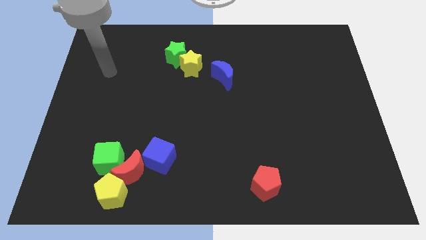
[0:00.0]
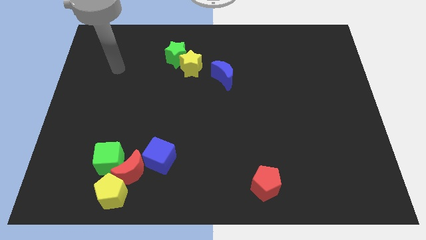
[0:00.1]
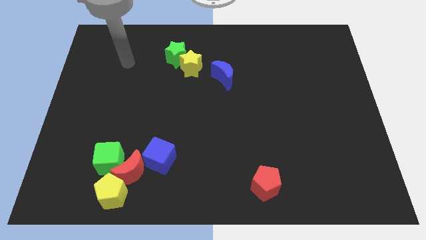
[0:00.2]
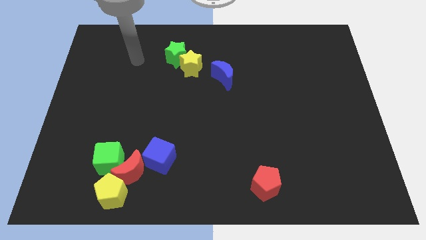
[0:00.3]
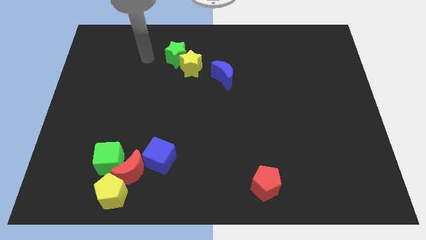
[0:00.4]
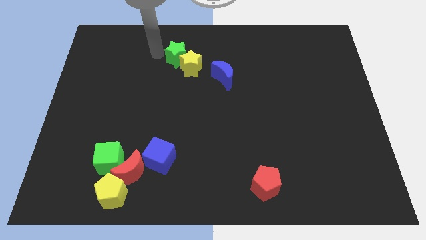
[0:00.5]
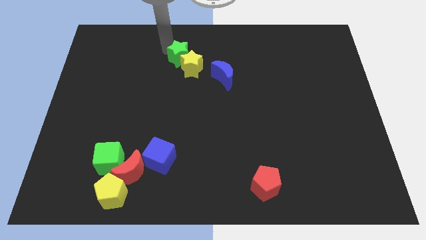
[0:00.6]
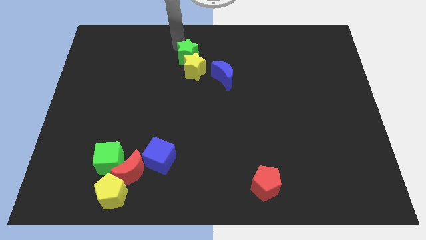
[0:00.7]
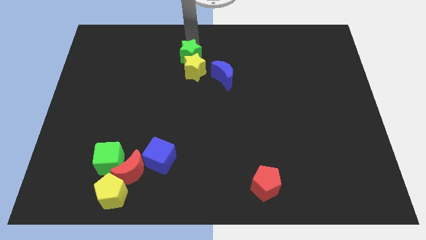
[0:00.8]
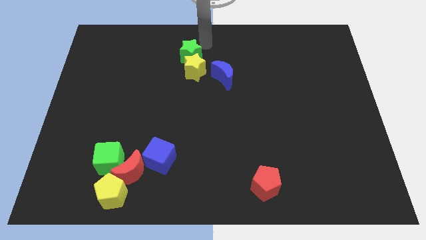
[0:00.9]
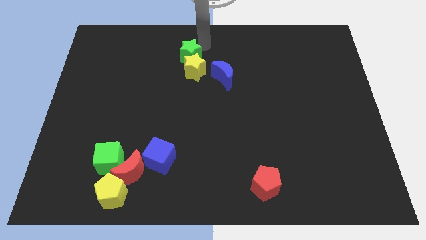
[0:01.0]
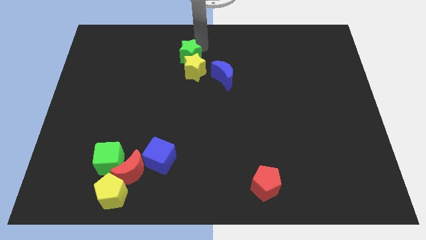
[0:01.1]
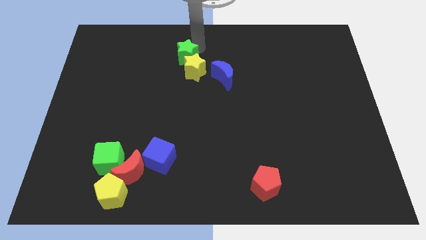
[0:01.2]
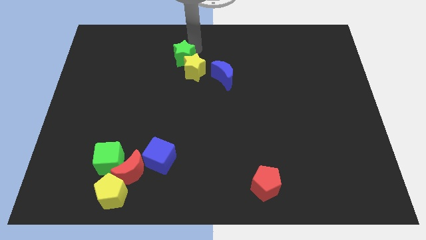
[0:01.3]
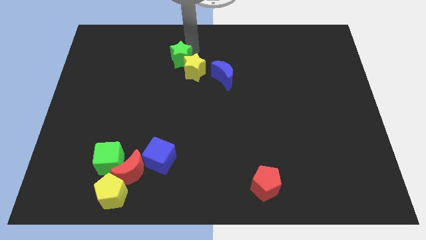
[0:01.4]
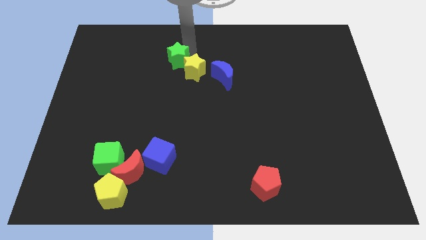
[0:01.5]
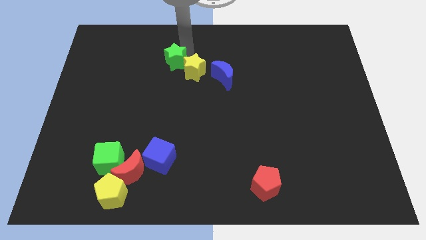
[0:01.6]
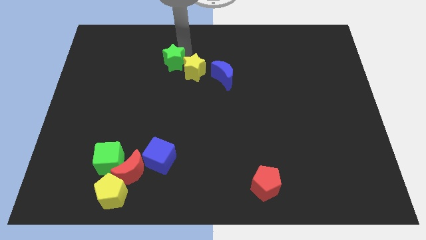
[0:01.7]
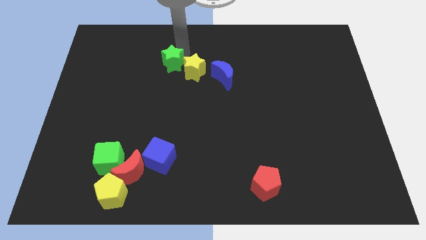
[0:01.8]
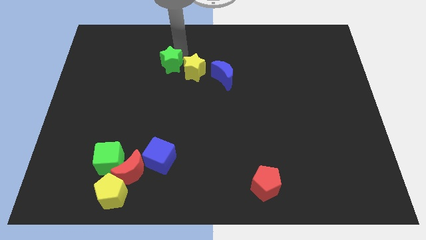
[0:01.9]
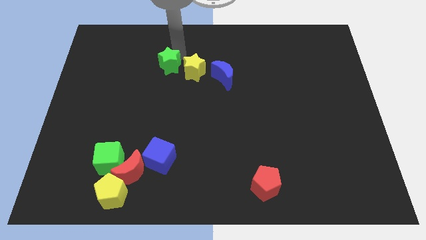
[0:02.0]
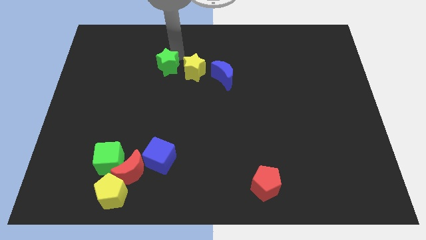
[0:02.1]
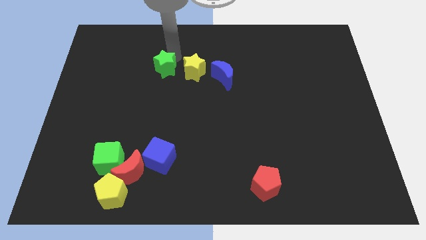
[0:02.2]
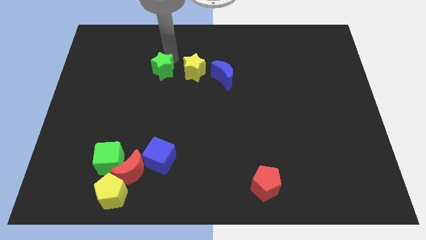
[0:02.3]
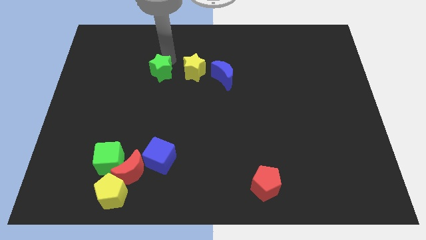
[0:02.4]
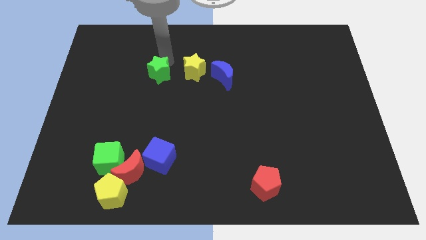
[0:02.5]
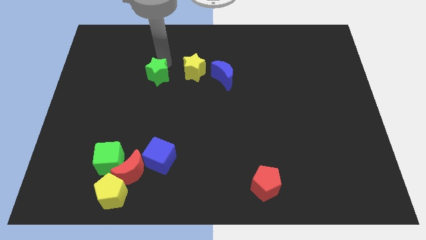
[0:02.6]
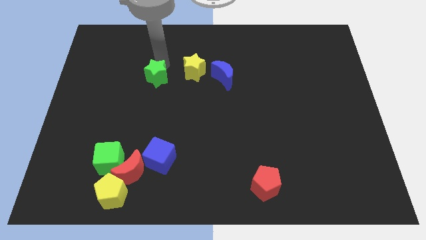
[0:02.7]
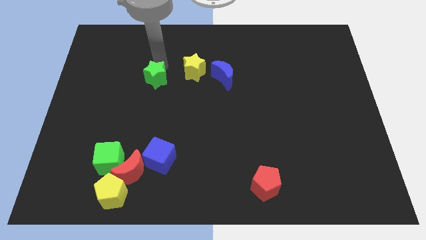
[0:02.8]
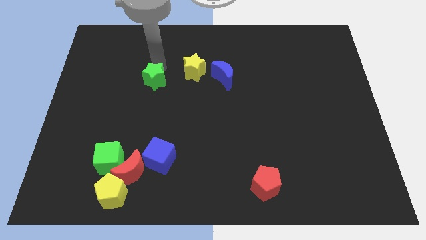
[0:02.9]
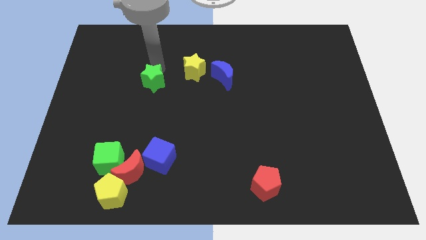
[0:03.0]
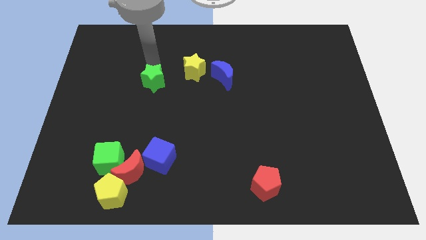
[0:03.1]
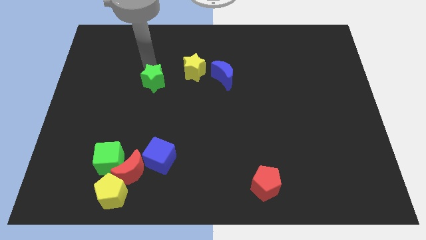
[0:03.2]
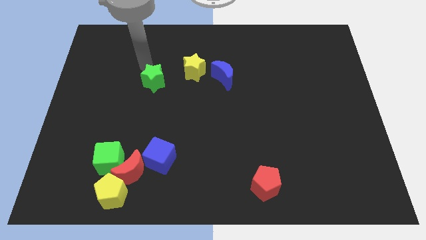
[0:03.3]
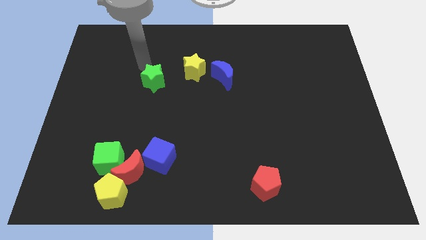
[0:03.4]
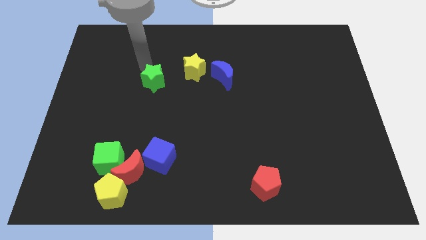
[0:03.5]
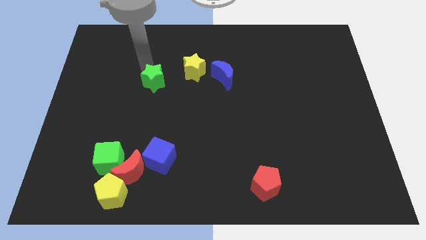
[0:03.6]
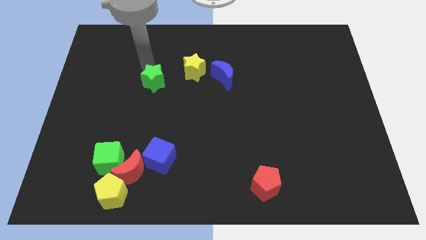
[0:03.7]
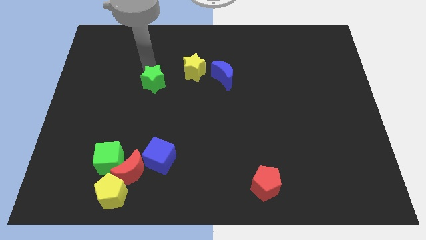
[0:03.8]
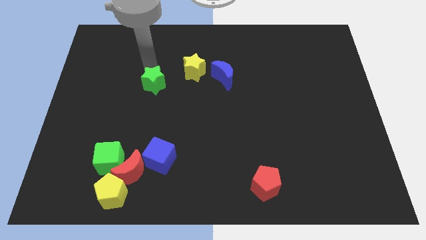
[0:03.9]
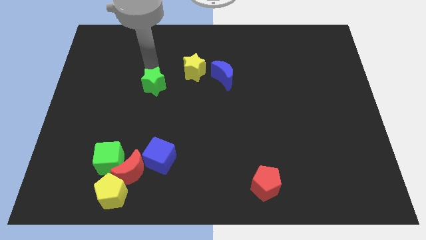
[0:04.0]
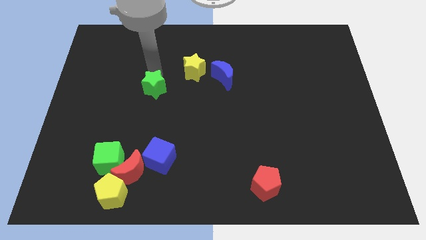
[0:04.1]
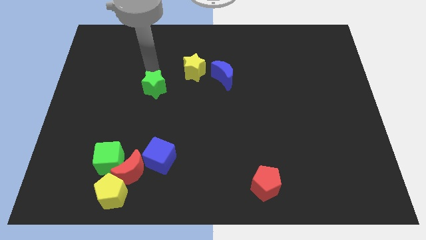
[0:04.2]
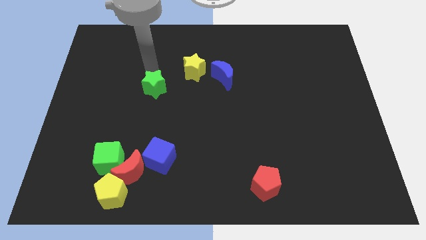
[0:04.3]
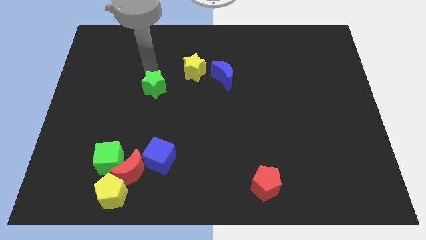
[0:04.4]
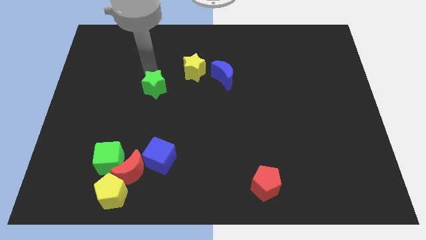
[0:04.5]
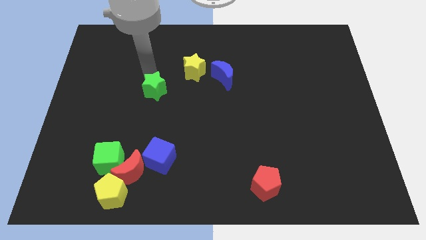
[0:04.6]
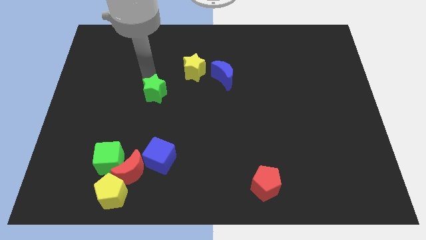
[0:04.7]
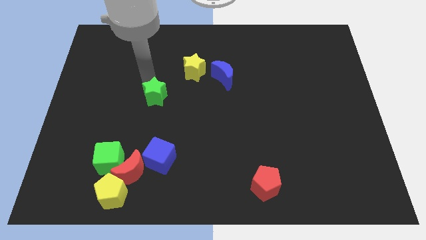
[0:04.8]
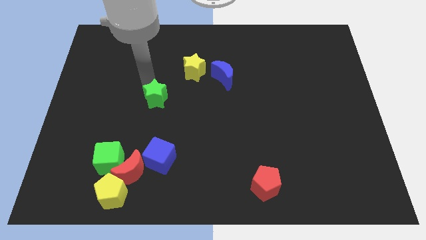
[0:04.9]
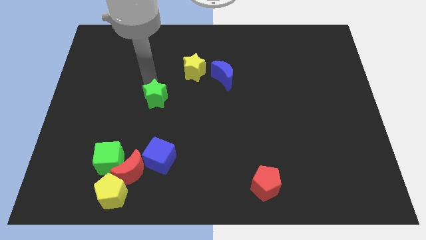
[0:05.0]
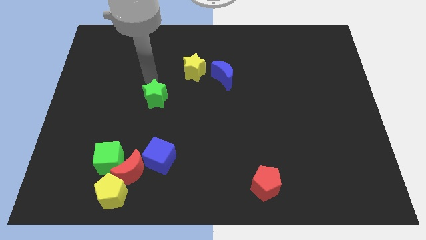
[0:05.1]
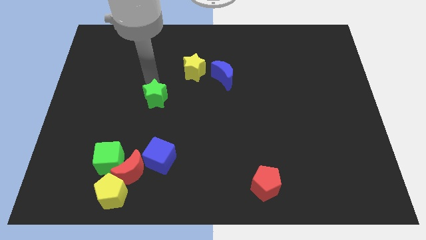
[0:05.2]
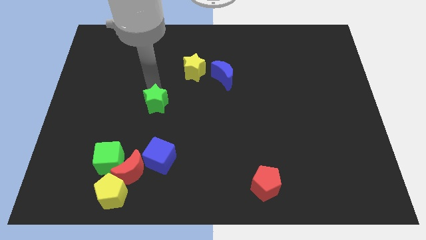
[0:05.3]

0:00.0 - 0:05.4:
push the green star to the top of the blue cube
